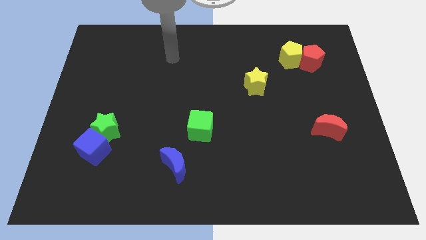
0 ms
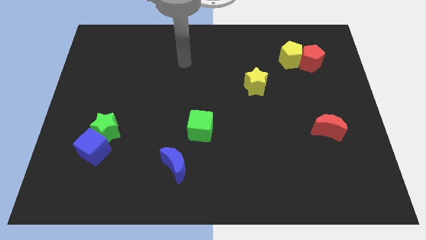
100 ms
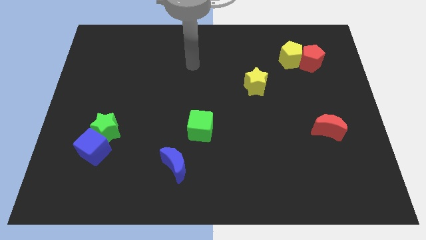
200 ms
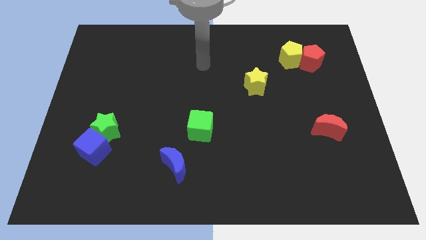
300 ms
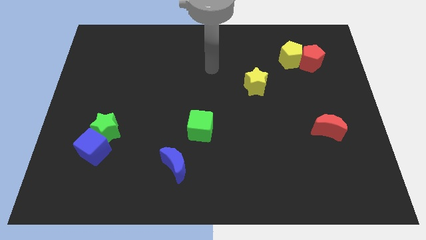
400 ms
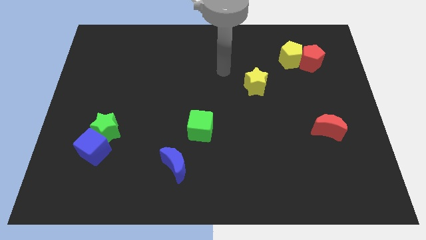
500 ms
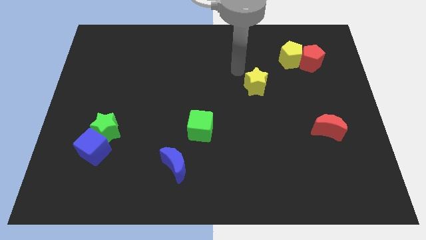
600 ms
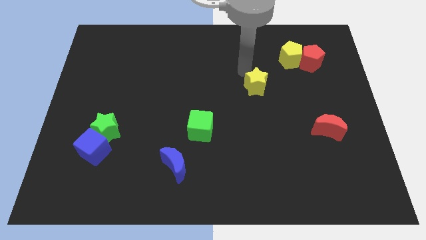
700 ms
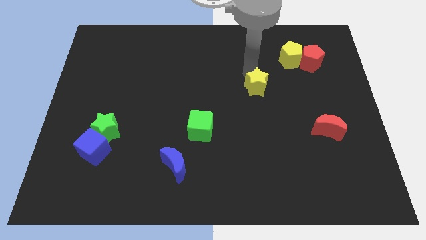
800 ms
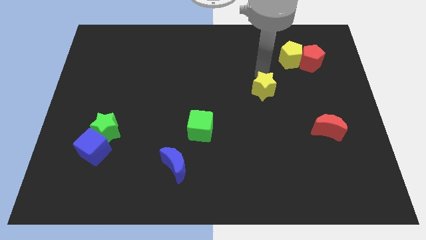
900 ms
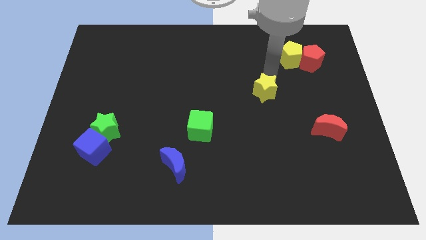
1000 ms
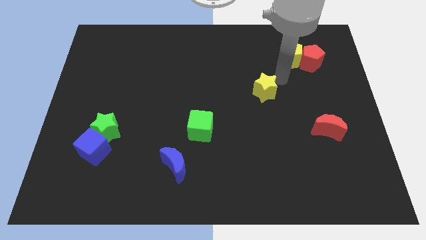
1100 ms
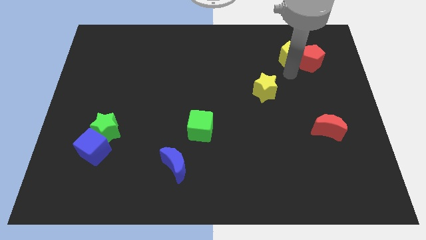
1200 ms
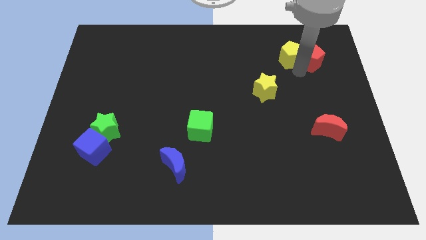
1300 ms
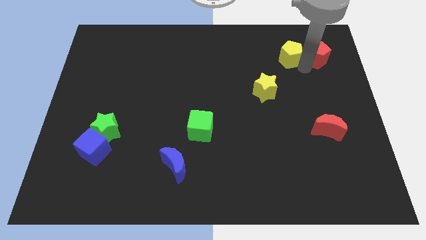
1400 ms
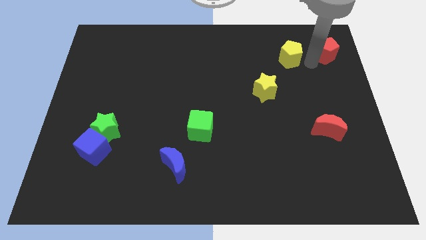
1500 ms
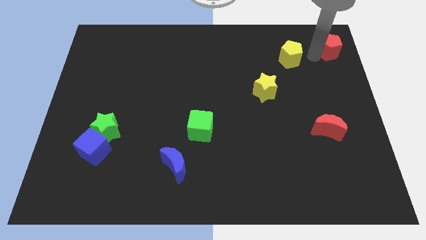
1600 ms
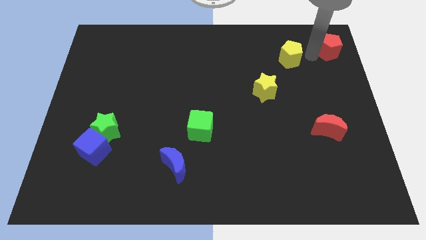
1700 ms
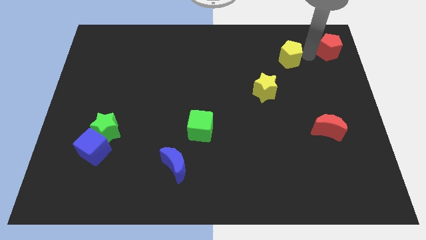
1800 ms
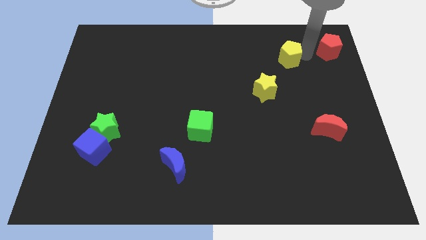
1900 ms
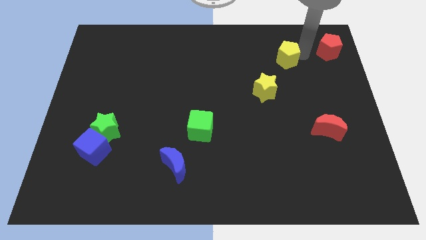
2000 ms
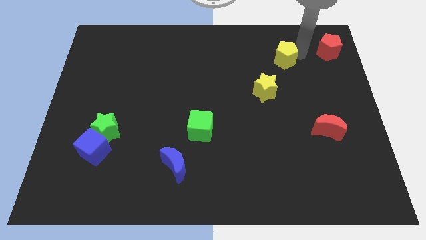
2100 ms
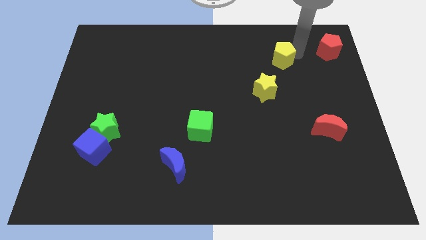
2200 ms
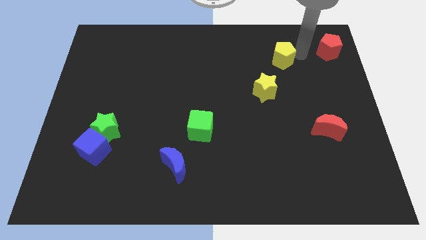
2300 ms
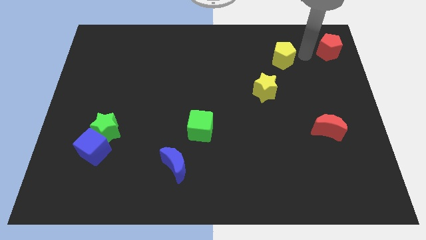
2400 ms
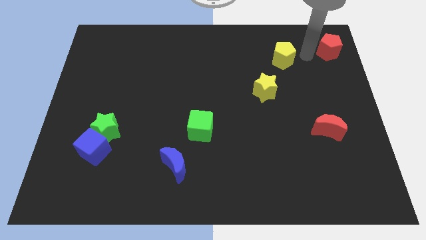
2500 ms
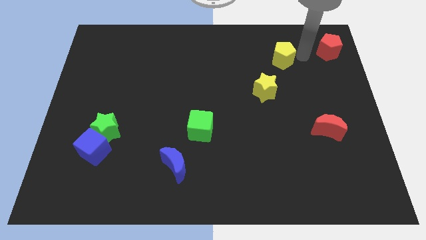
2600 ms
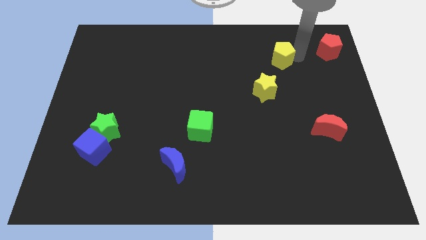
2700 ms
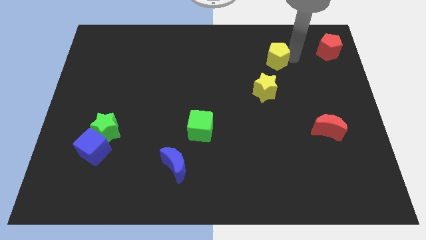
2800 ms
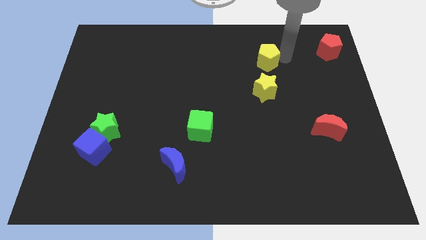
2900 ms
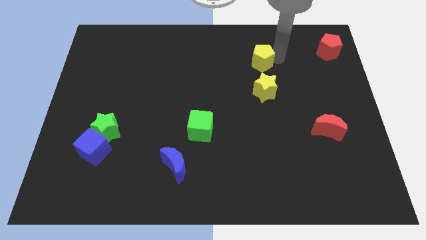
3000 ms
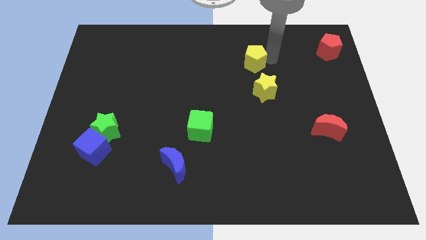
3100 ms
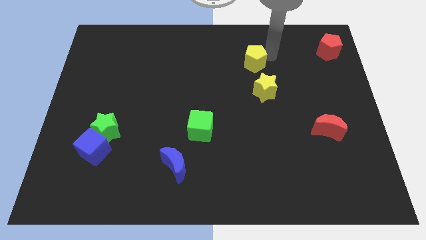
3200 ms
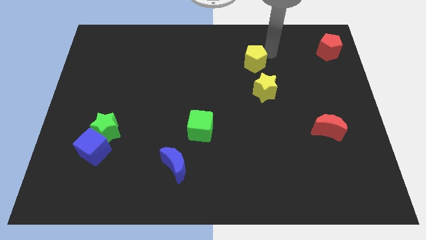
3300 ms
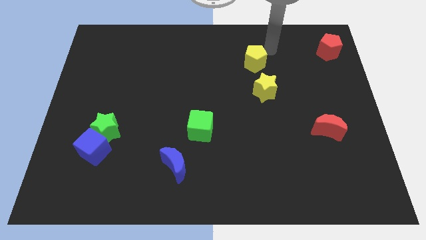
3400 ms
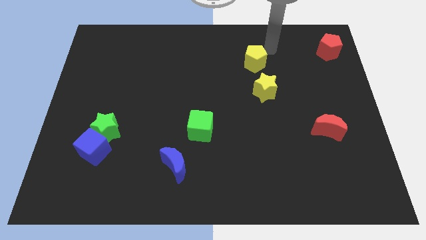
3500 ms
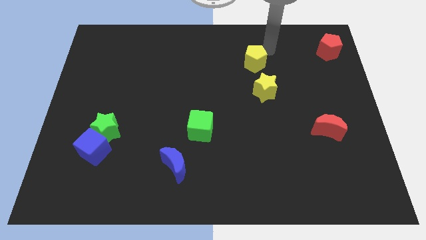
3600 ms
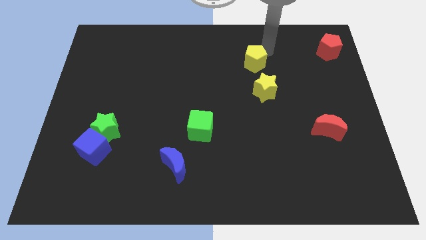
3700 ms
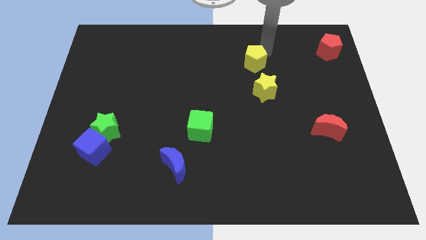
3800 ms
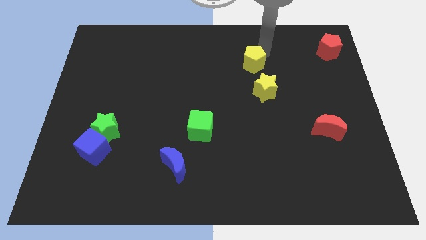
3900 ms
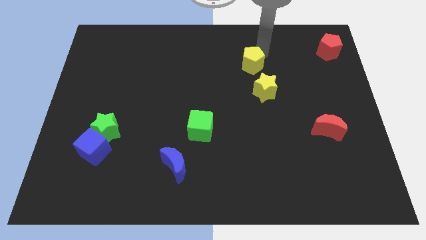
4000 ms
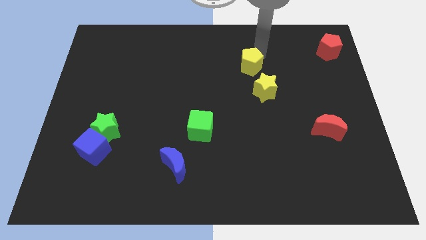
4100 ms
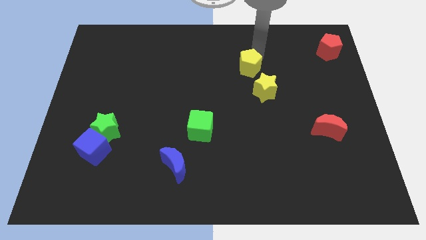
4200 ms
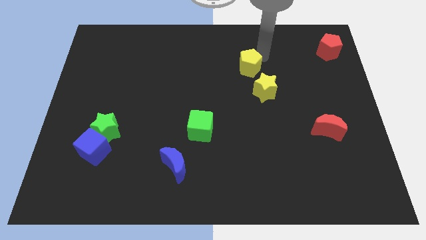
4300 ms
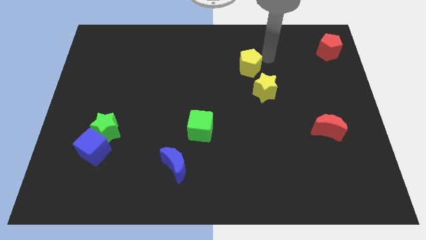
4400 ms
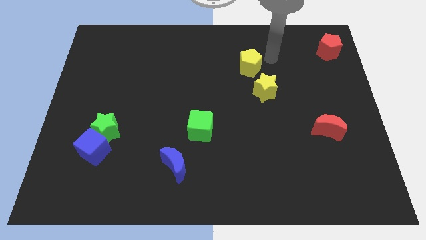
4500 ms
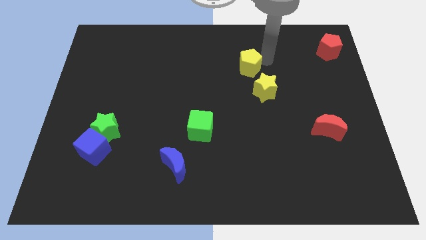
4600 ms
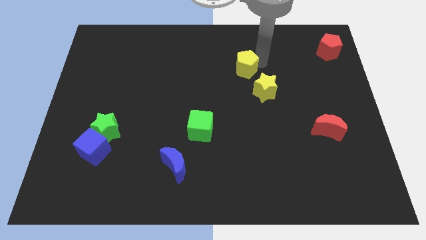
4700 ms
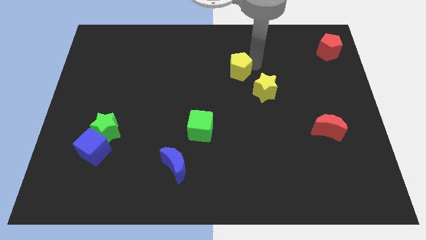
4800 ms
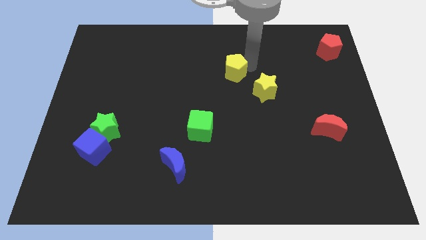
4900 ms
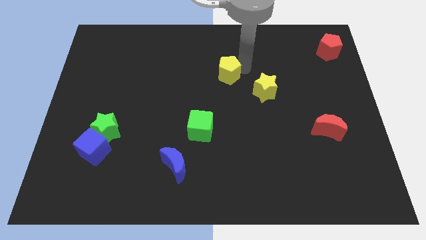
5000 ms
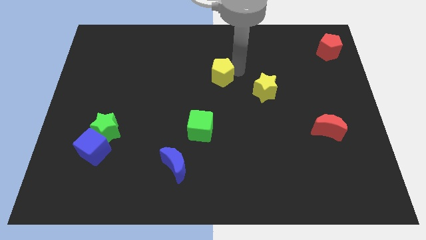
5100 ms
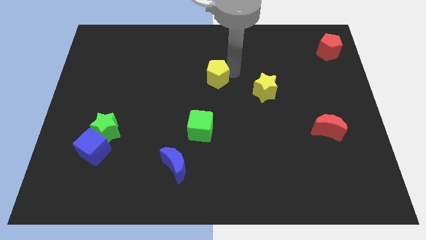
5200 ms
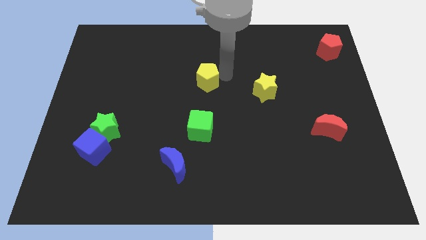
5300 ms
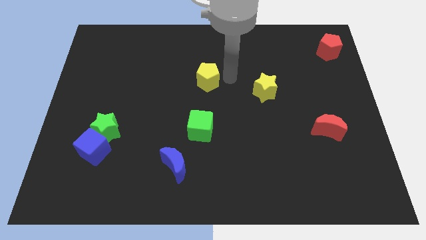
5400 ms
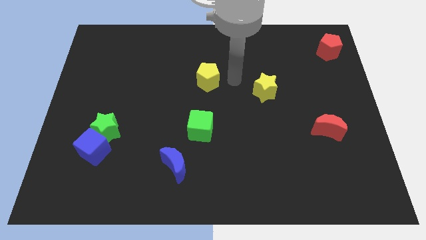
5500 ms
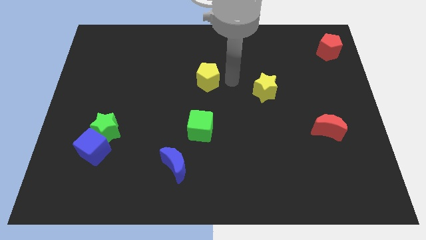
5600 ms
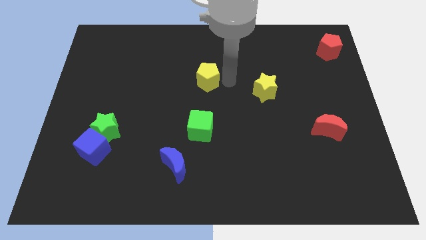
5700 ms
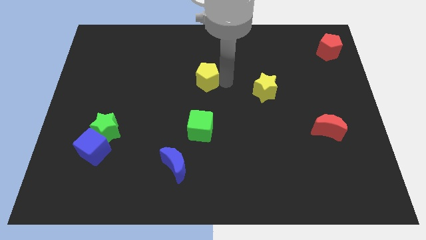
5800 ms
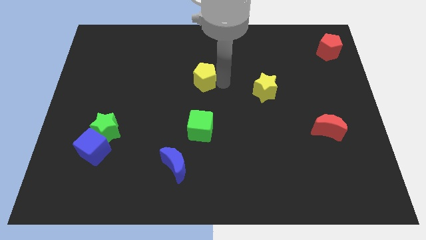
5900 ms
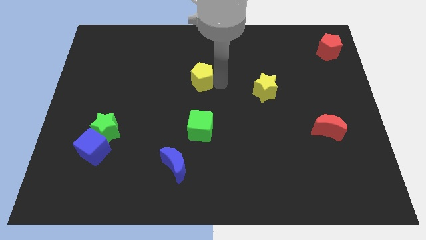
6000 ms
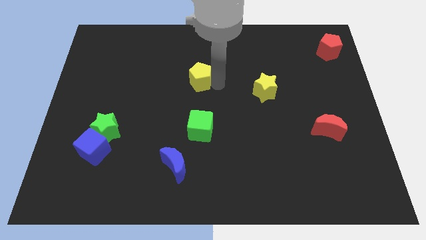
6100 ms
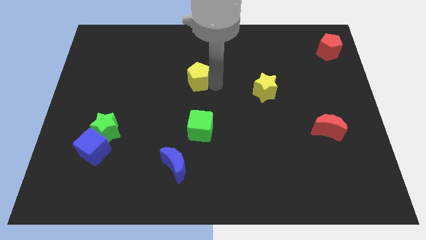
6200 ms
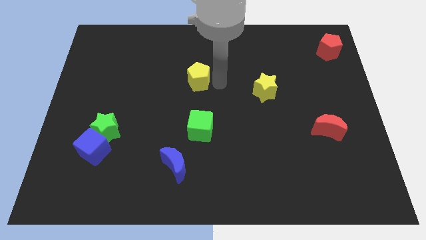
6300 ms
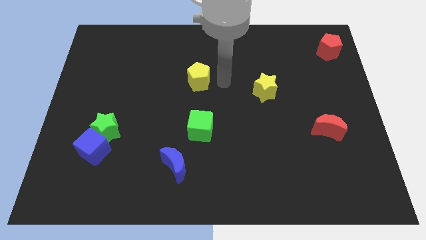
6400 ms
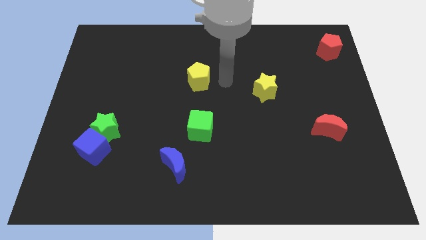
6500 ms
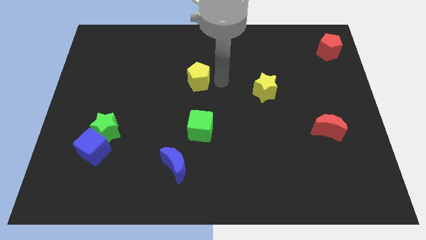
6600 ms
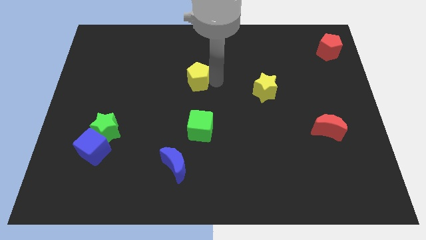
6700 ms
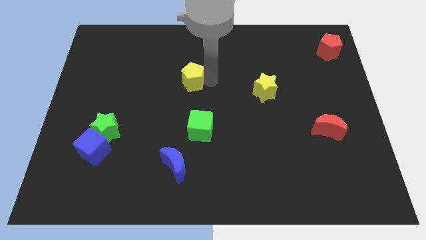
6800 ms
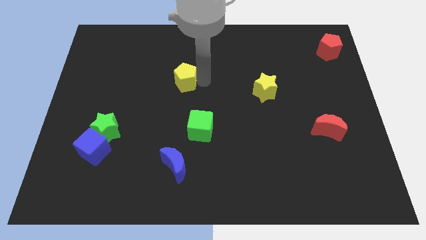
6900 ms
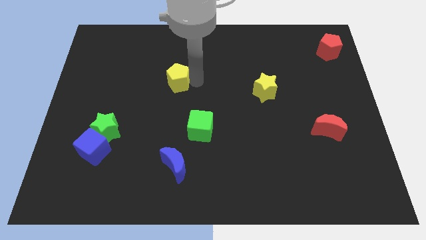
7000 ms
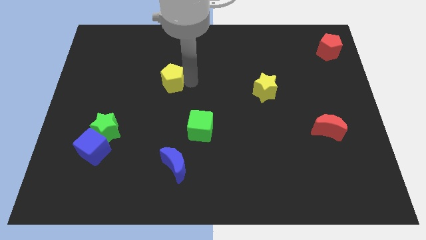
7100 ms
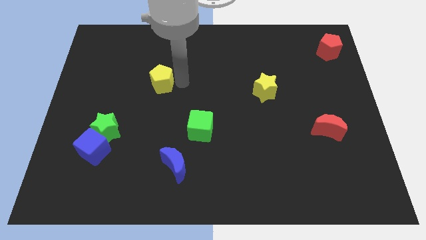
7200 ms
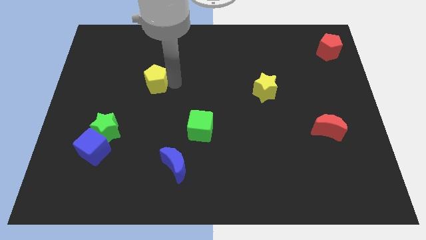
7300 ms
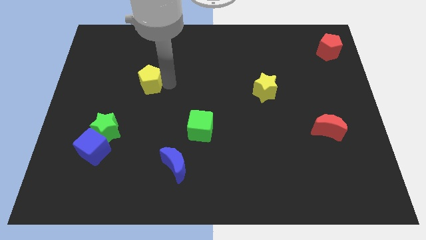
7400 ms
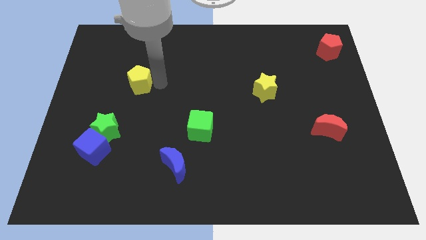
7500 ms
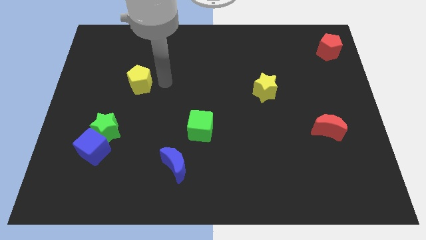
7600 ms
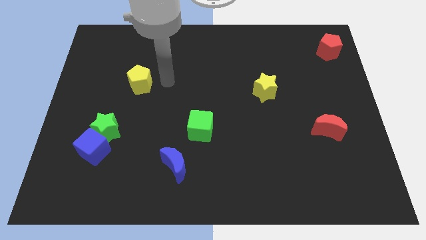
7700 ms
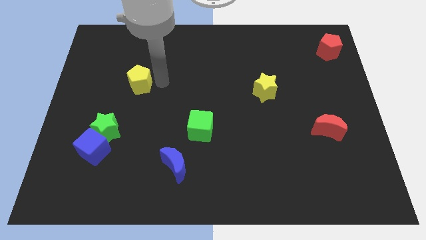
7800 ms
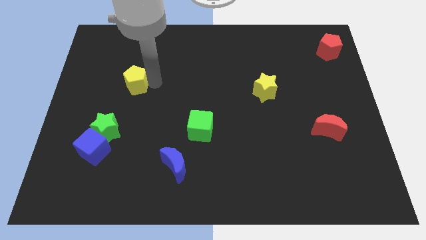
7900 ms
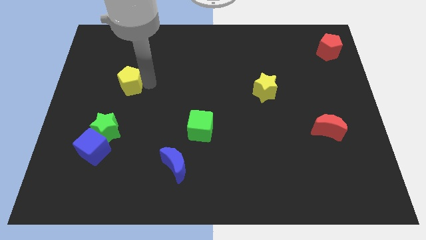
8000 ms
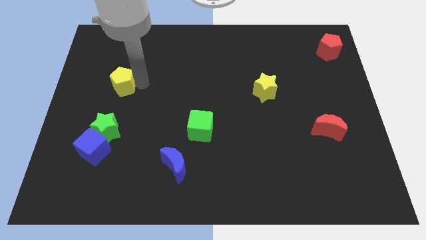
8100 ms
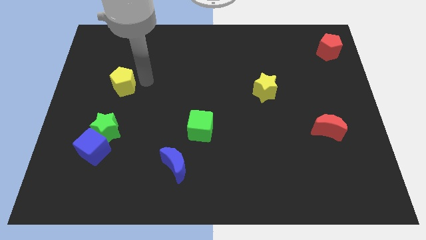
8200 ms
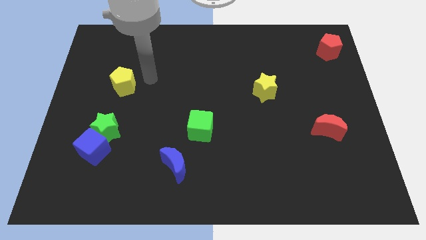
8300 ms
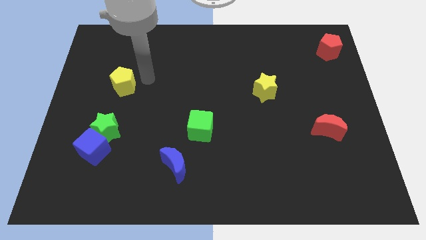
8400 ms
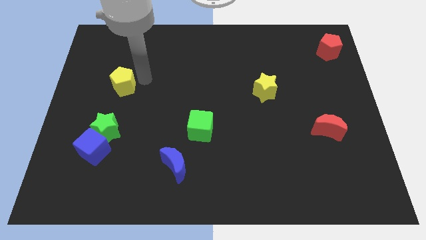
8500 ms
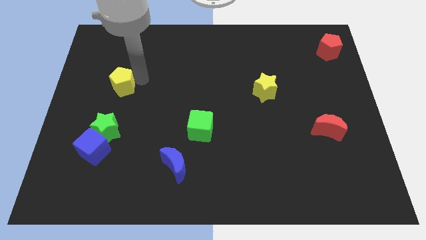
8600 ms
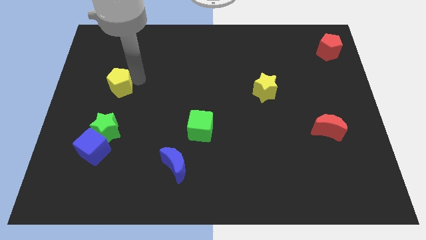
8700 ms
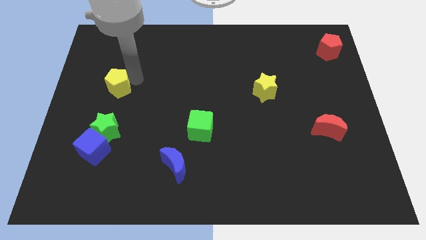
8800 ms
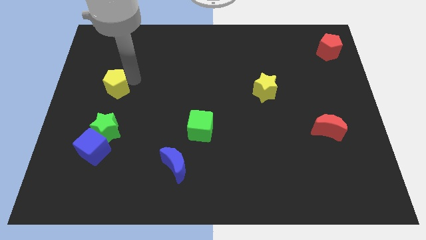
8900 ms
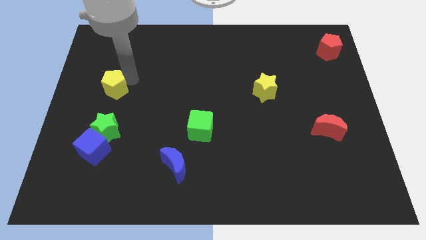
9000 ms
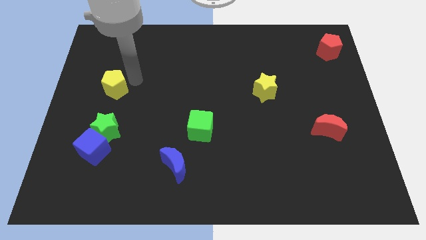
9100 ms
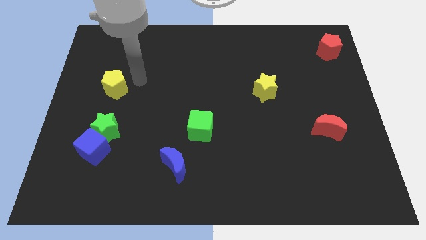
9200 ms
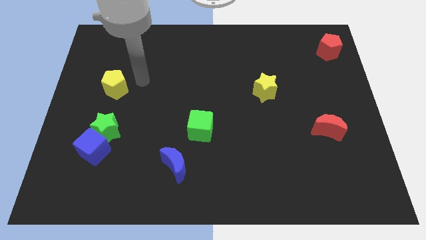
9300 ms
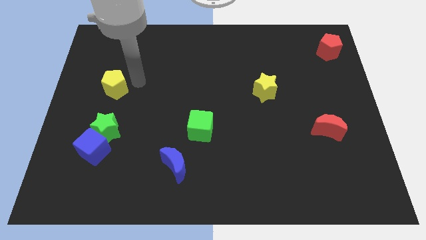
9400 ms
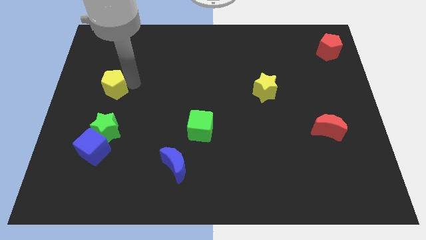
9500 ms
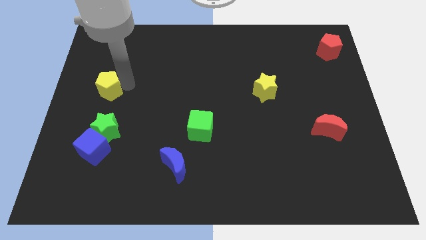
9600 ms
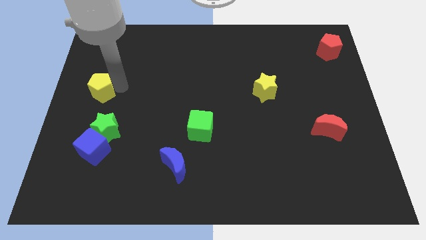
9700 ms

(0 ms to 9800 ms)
push the yellow pentagon to the center left
